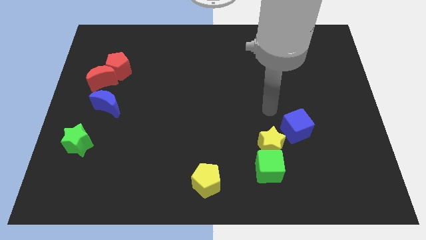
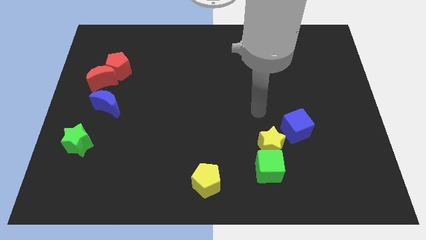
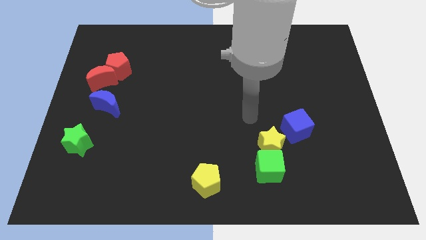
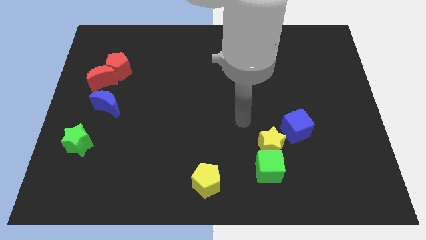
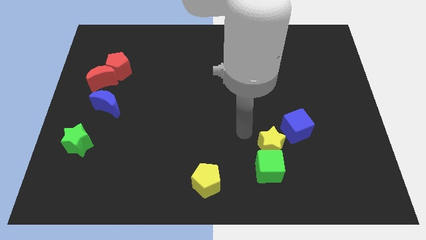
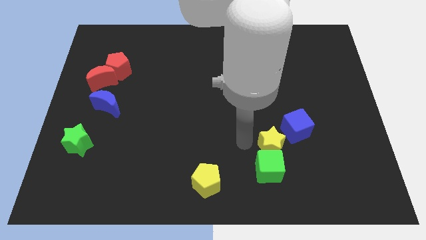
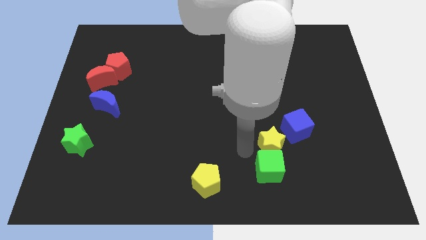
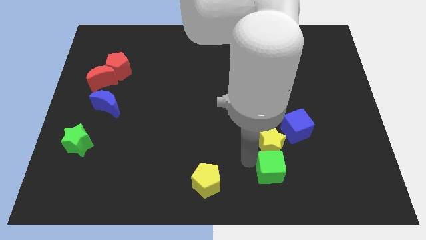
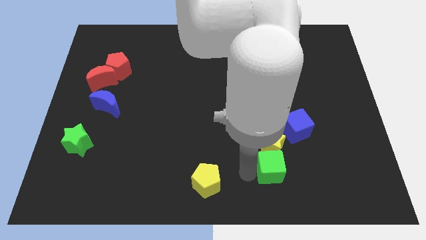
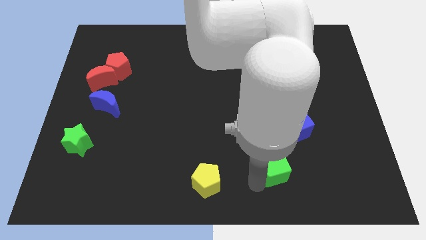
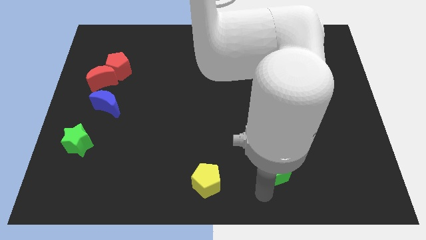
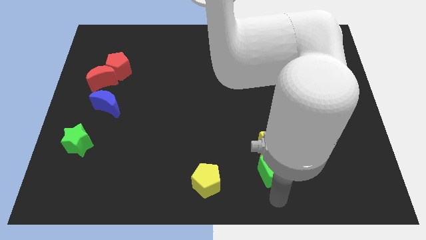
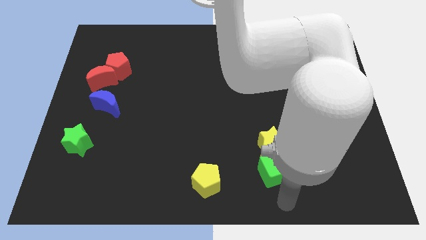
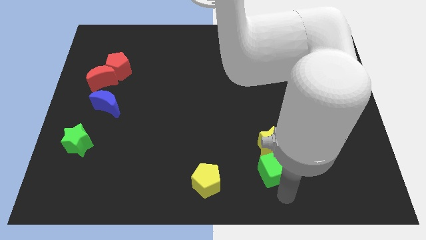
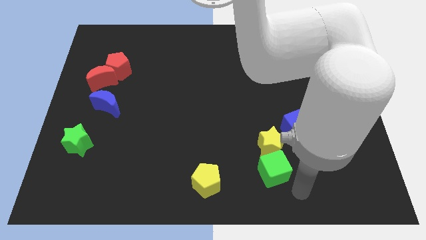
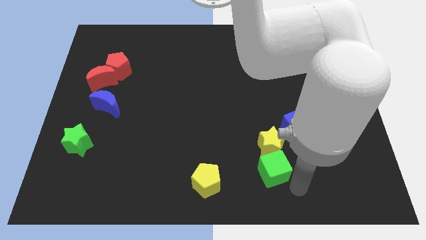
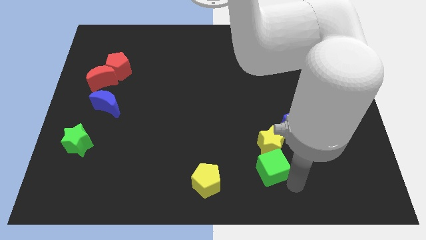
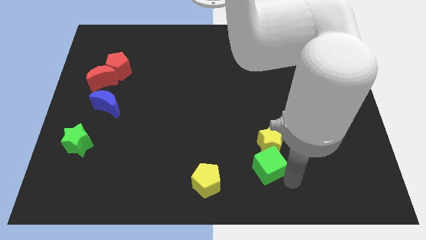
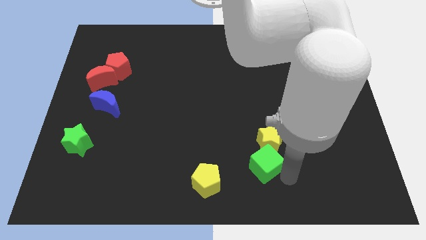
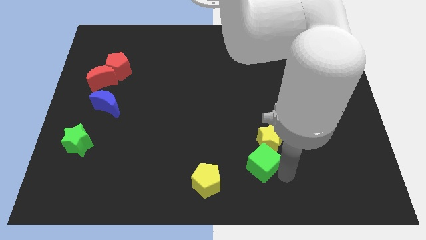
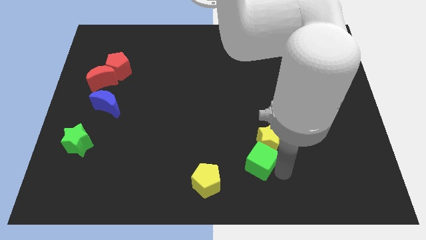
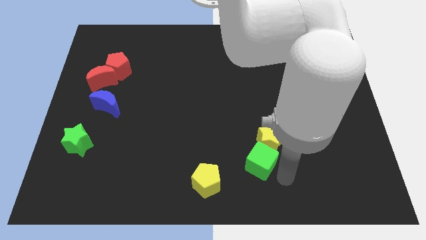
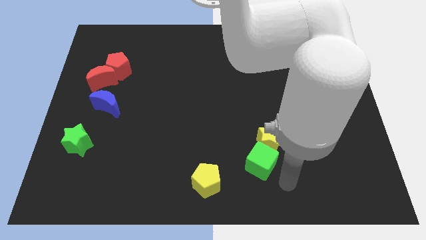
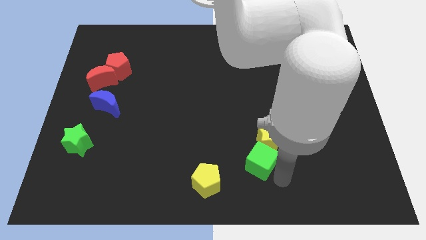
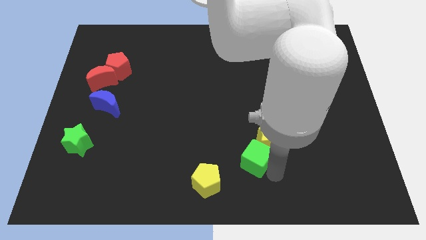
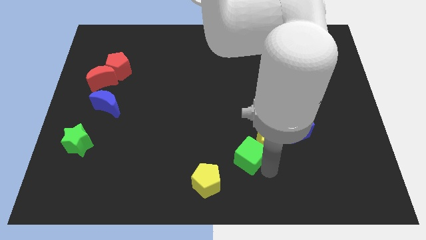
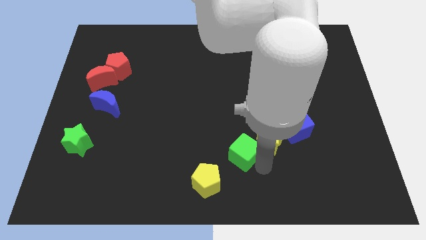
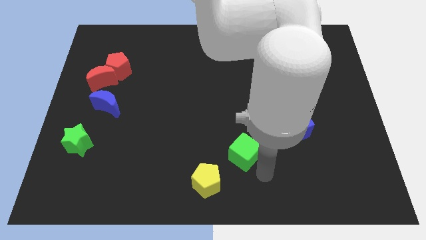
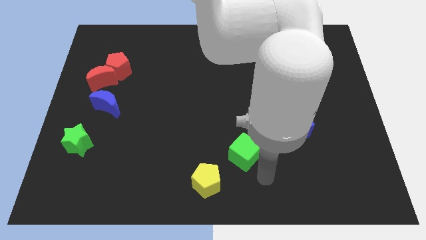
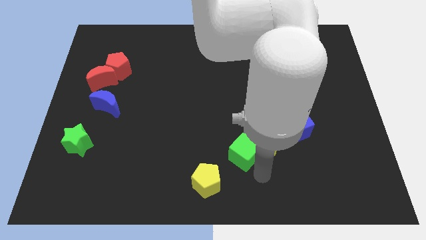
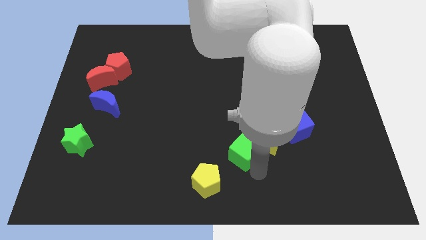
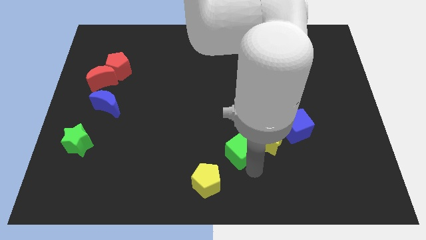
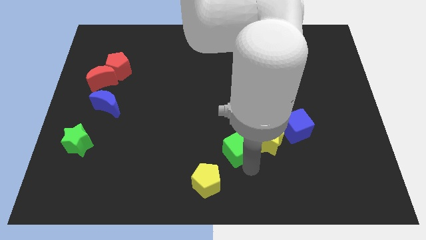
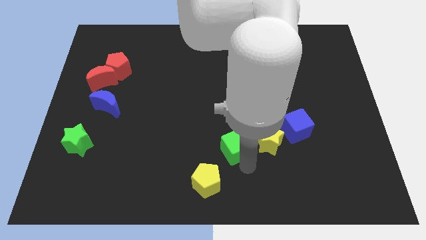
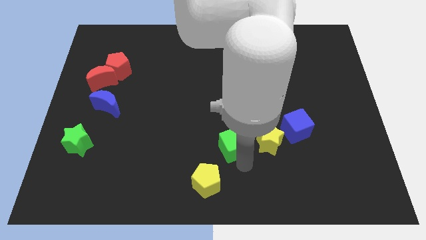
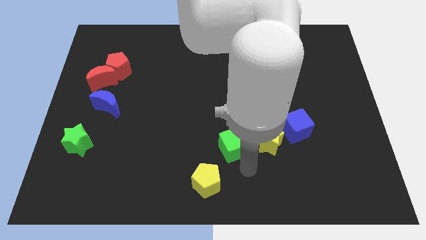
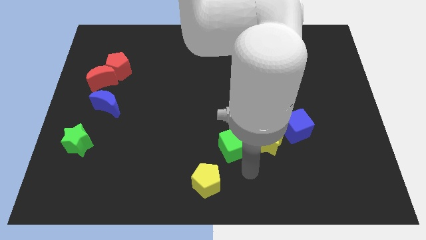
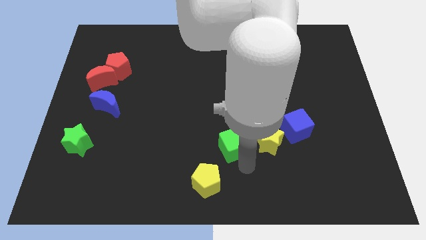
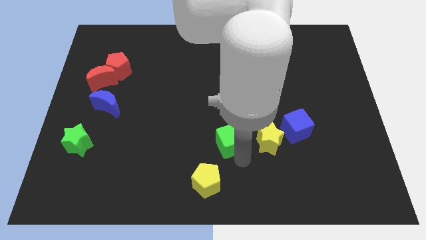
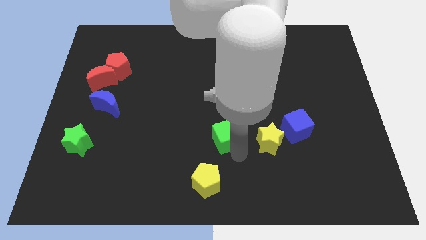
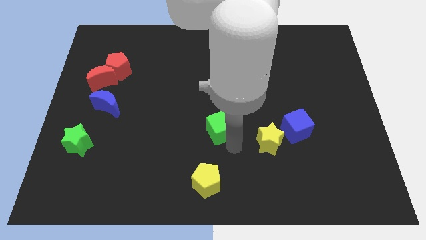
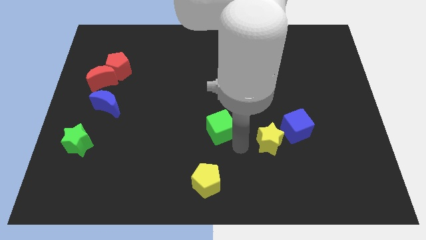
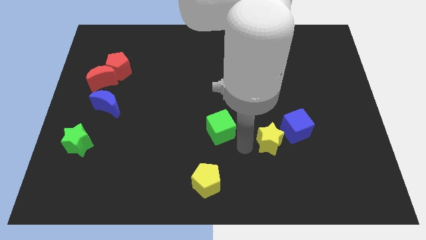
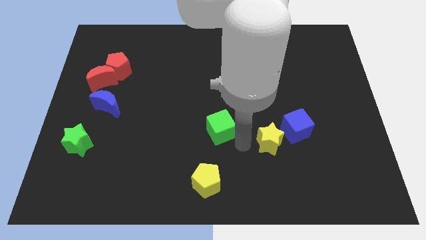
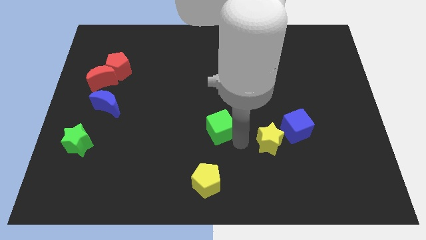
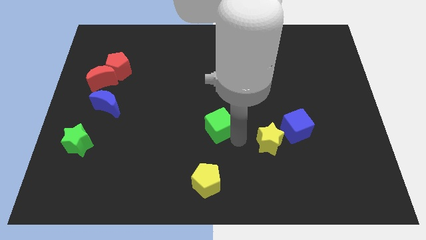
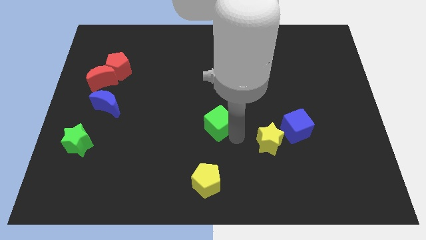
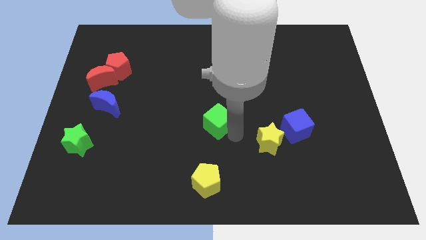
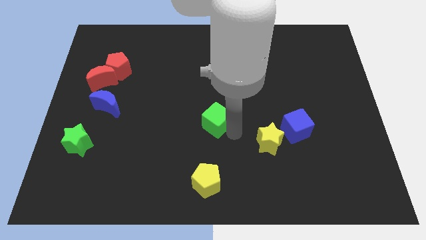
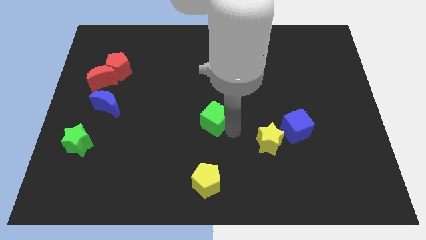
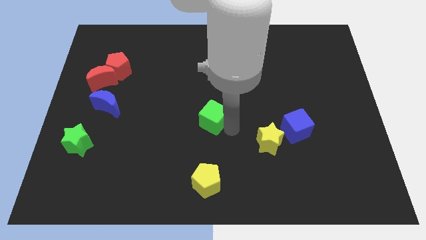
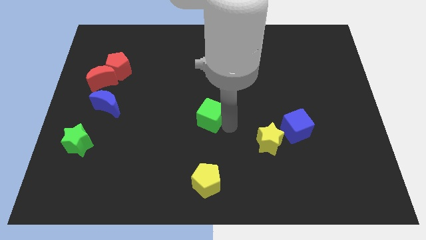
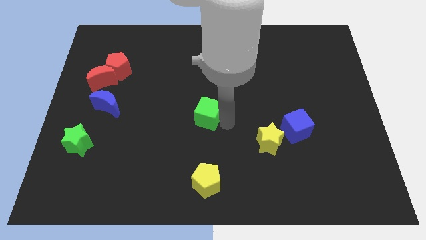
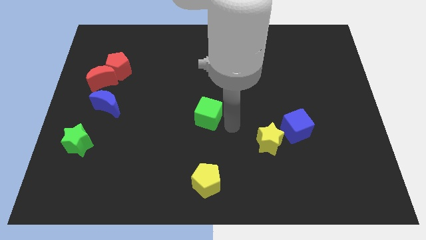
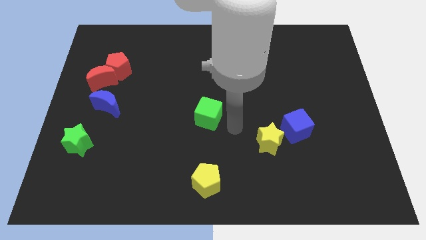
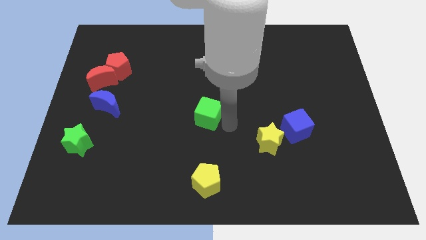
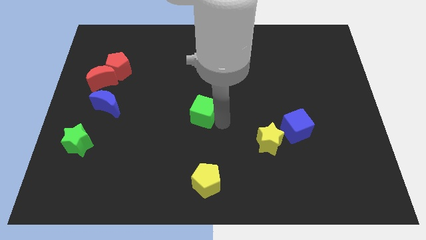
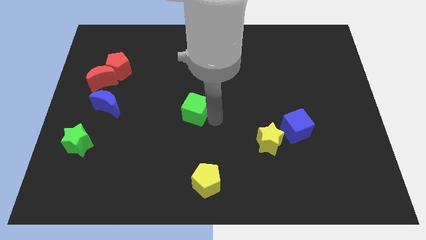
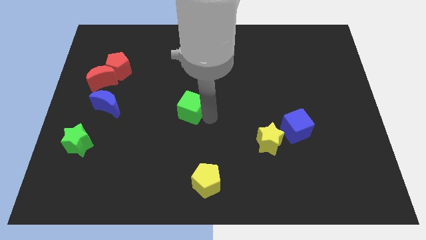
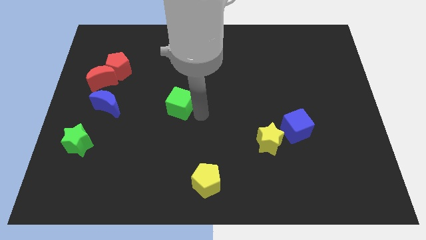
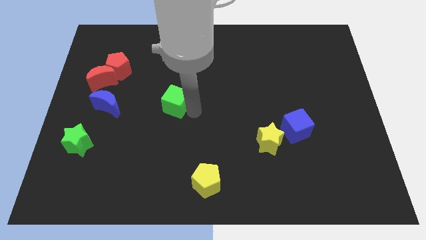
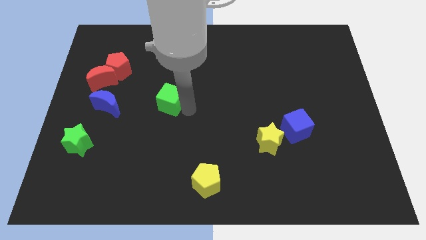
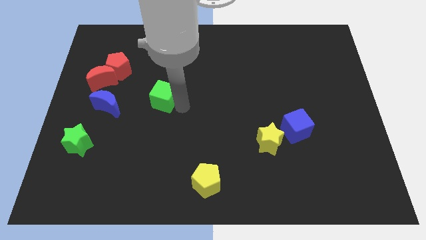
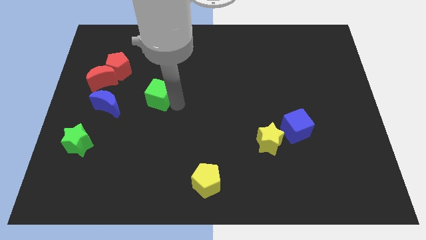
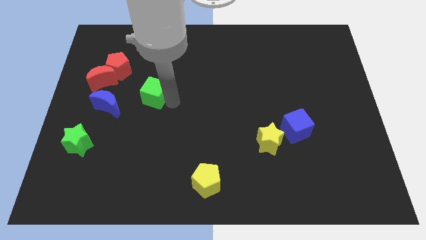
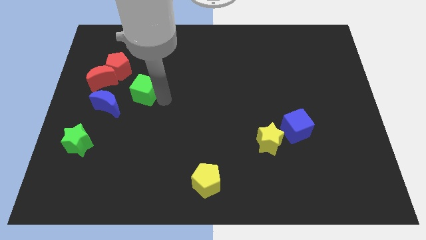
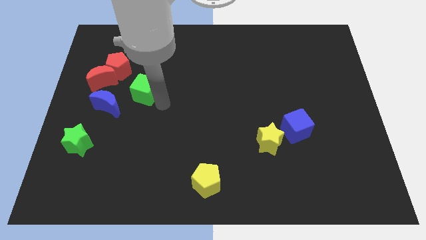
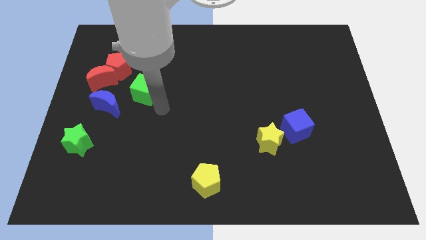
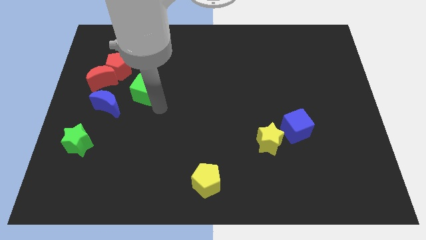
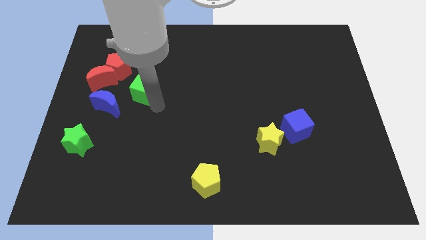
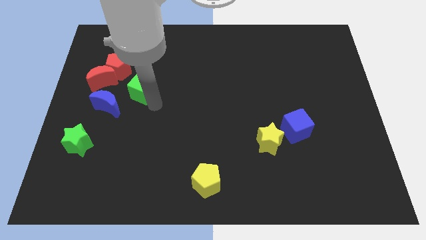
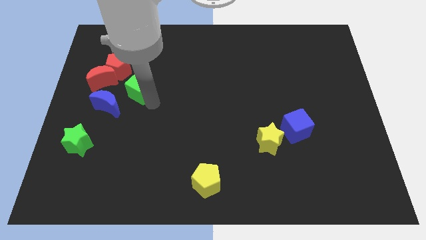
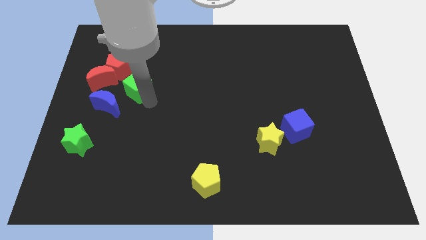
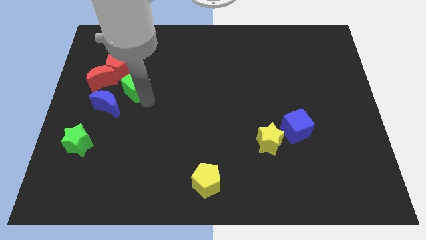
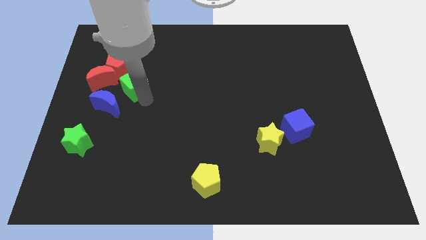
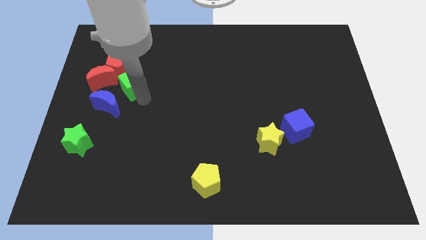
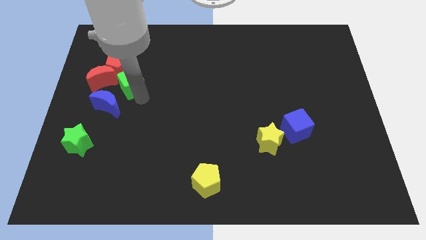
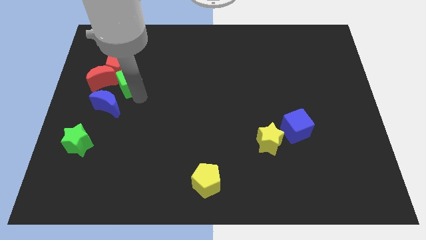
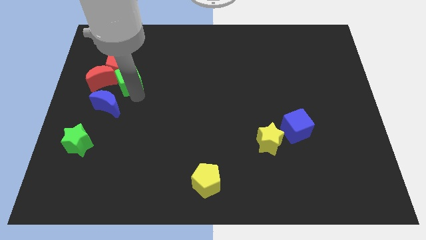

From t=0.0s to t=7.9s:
push the green cube close to the red pentagon
